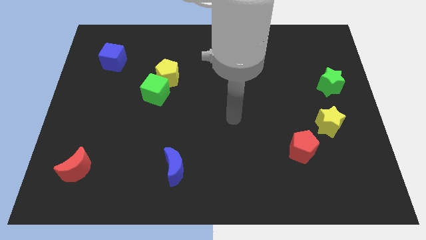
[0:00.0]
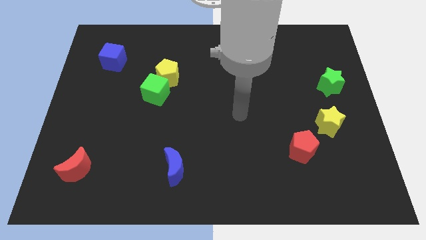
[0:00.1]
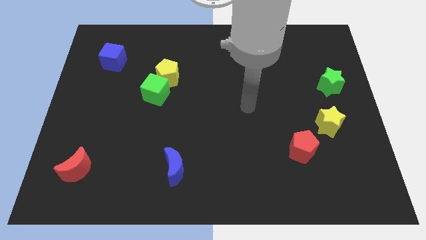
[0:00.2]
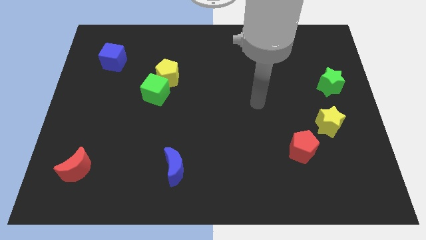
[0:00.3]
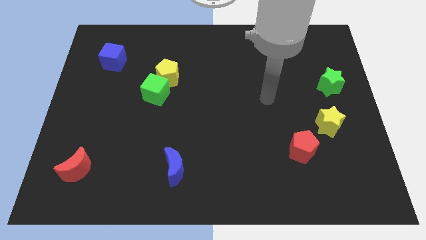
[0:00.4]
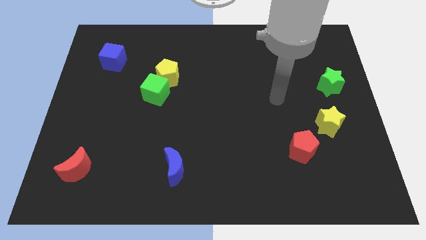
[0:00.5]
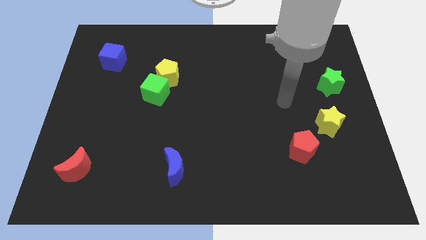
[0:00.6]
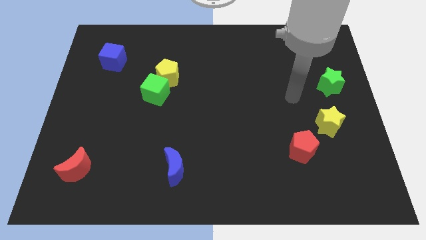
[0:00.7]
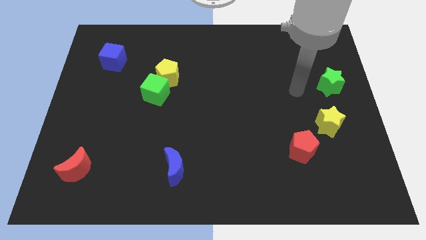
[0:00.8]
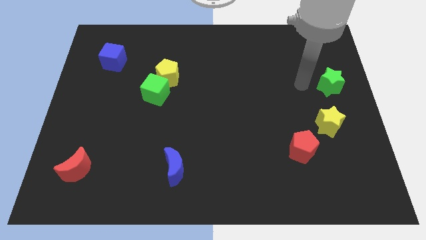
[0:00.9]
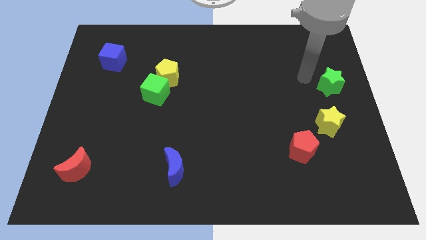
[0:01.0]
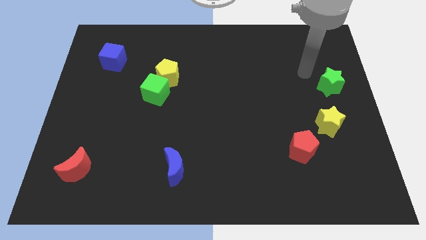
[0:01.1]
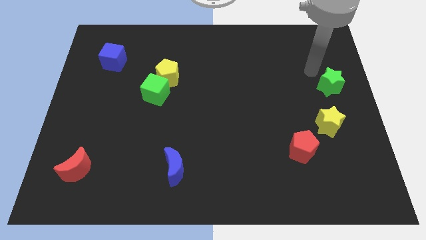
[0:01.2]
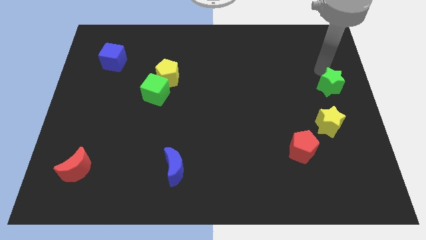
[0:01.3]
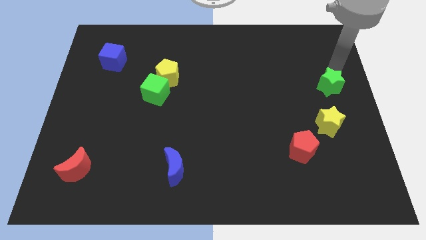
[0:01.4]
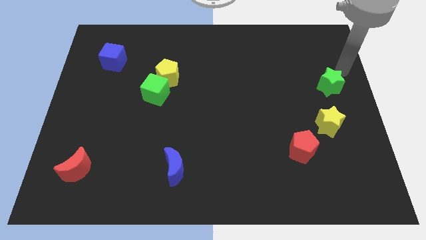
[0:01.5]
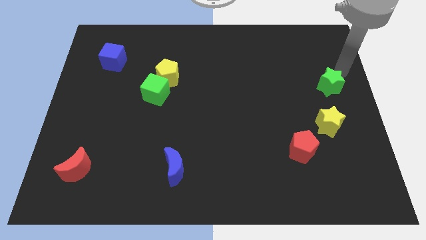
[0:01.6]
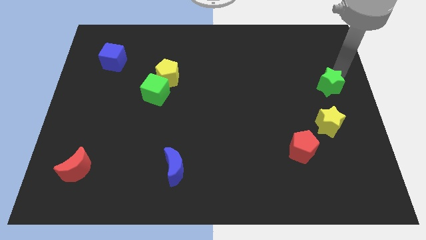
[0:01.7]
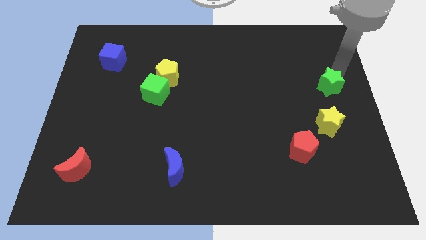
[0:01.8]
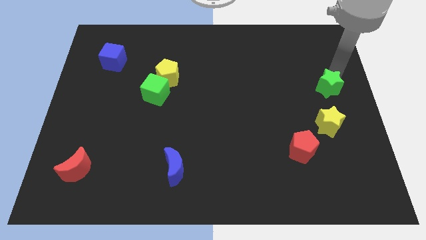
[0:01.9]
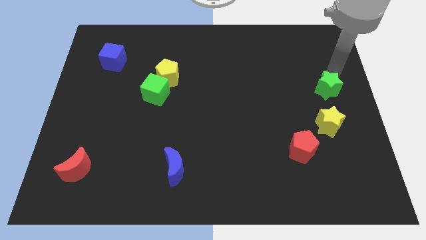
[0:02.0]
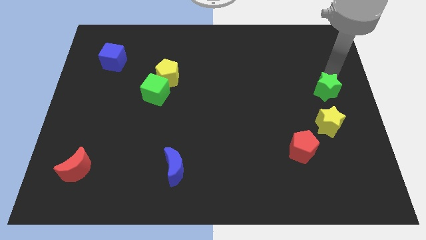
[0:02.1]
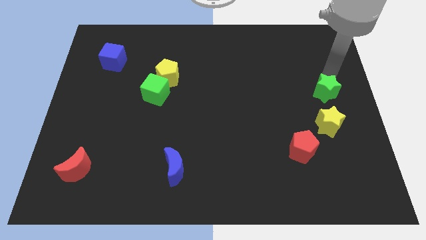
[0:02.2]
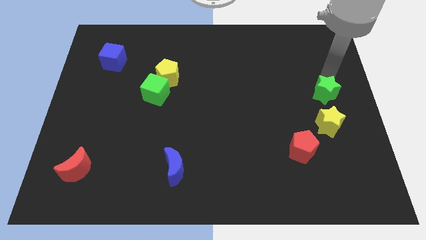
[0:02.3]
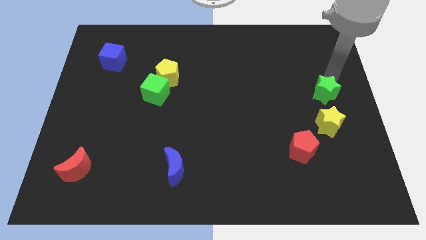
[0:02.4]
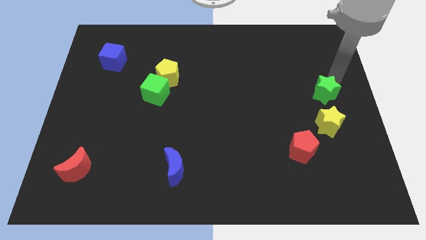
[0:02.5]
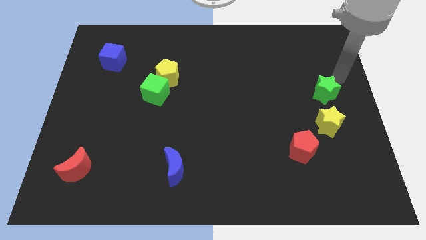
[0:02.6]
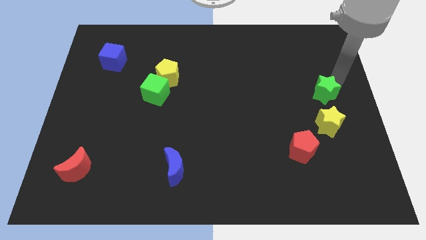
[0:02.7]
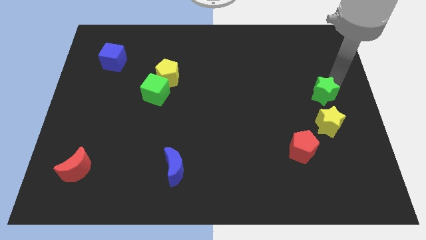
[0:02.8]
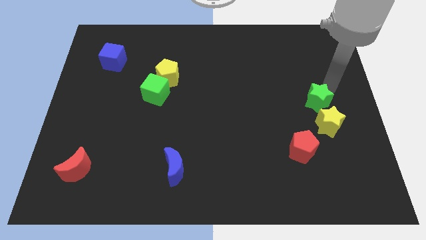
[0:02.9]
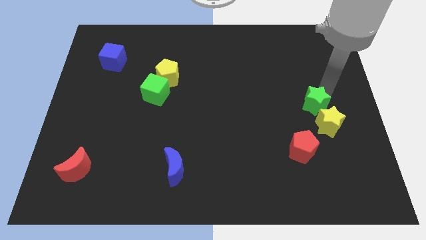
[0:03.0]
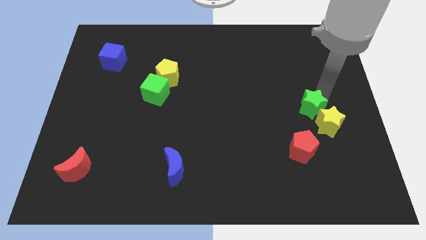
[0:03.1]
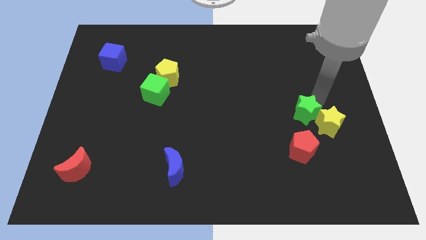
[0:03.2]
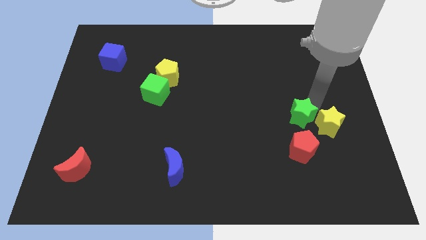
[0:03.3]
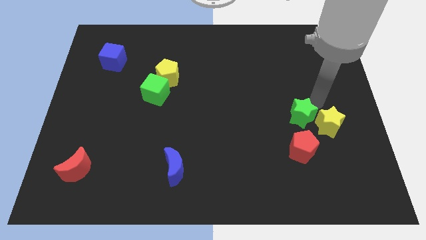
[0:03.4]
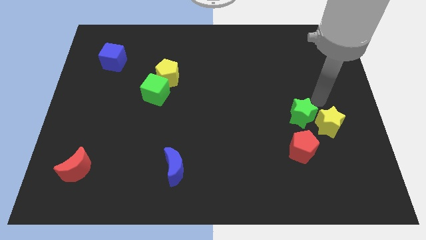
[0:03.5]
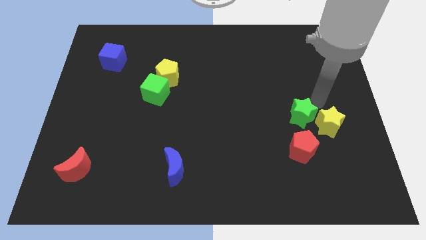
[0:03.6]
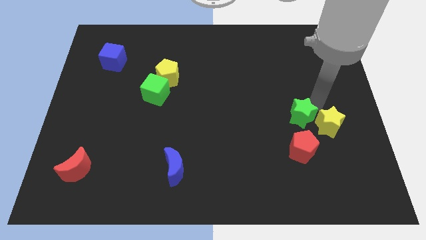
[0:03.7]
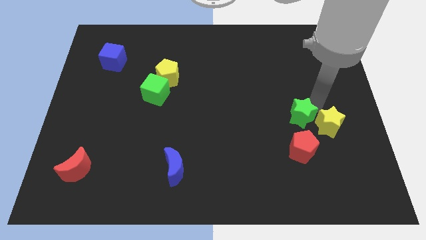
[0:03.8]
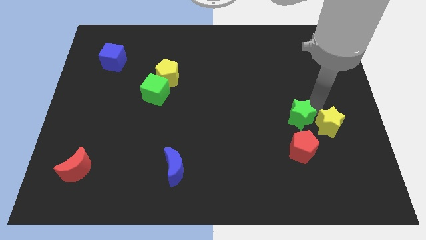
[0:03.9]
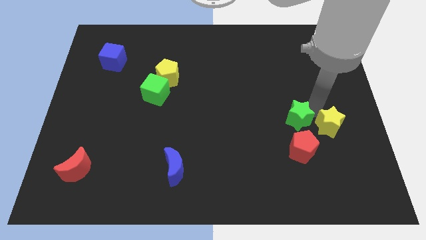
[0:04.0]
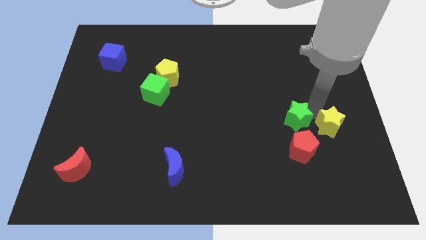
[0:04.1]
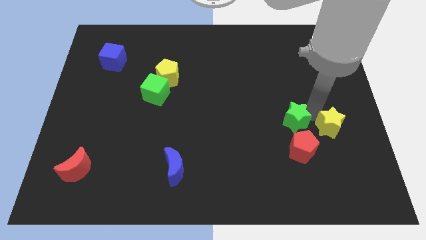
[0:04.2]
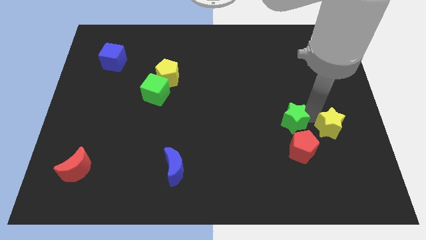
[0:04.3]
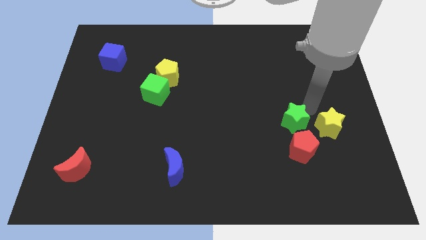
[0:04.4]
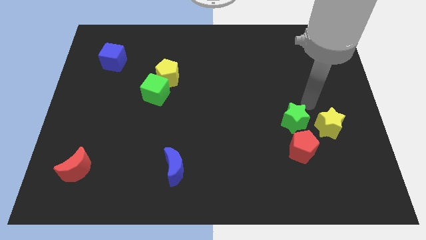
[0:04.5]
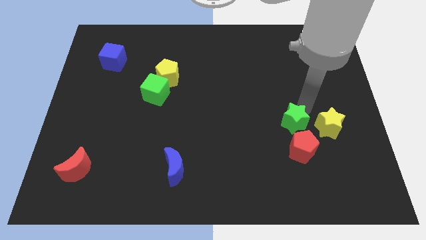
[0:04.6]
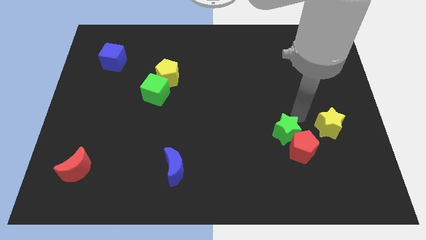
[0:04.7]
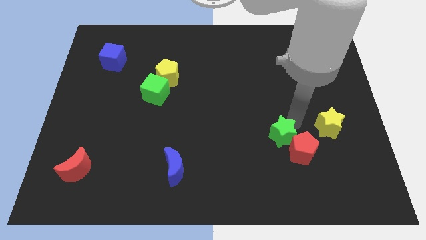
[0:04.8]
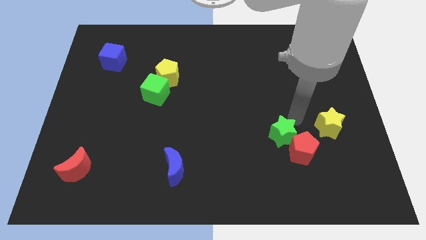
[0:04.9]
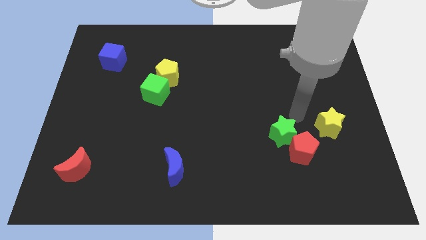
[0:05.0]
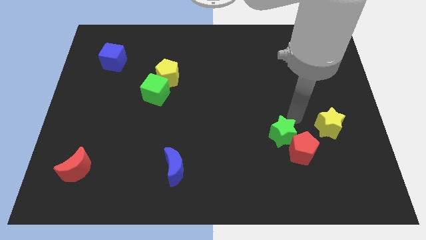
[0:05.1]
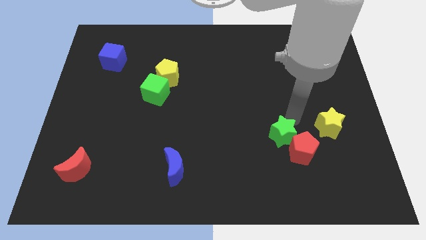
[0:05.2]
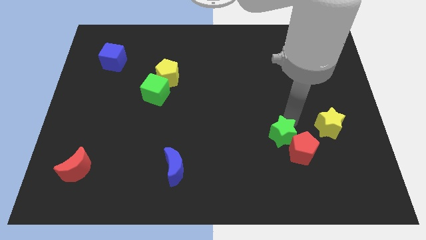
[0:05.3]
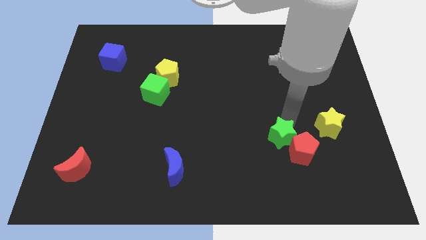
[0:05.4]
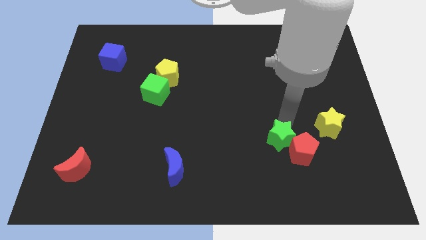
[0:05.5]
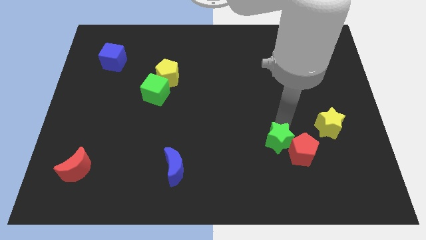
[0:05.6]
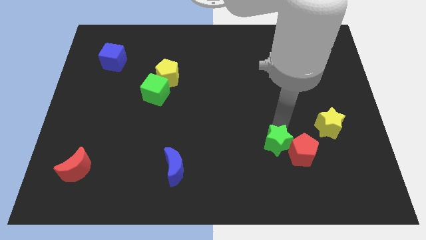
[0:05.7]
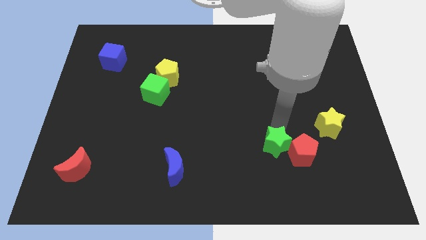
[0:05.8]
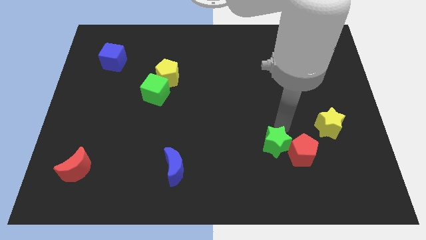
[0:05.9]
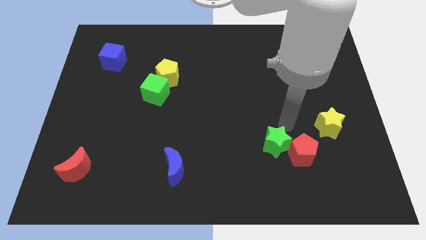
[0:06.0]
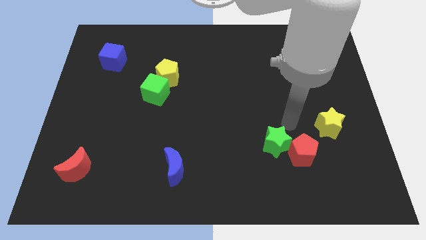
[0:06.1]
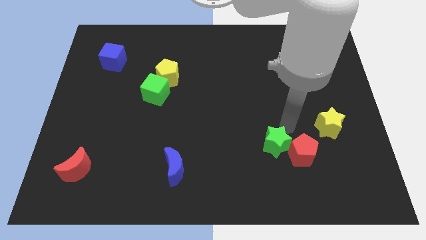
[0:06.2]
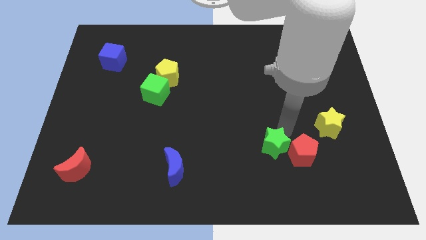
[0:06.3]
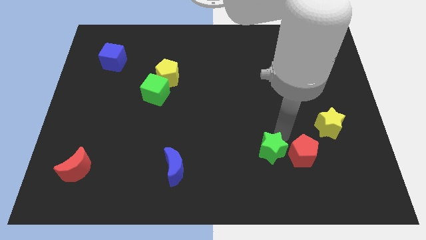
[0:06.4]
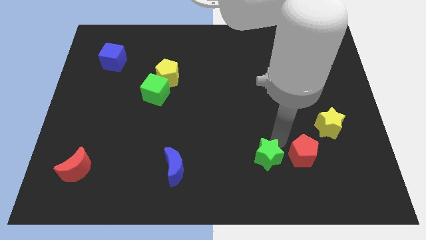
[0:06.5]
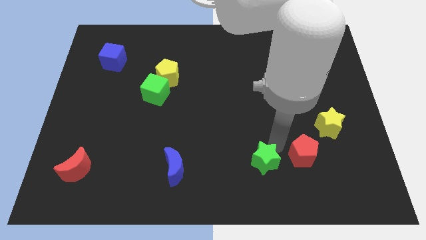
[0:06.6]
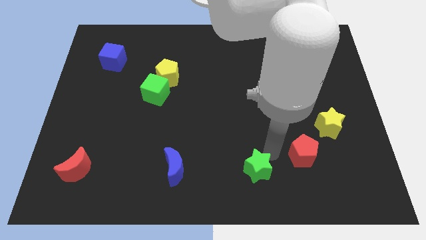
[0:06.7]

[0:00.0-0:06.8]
put the green star to the bottom side
